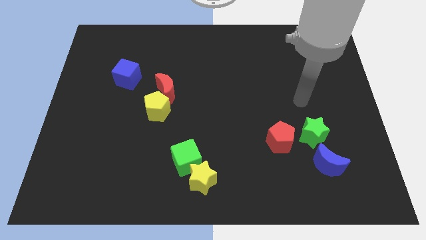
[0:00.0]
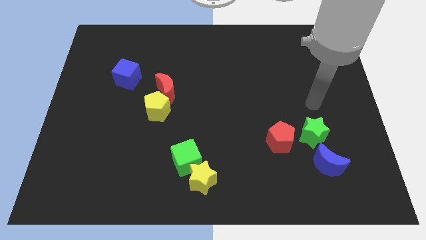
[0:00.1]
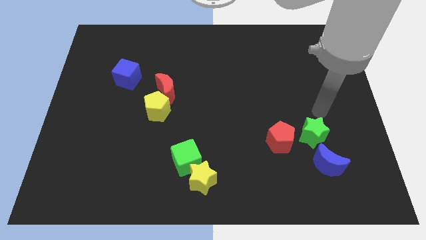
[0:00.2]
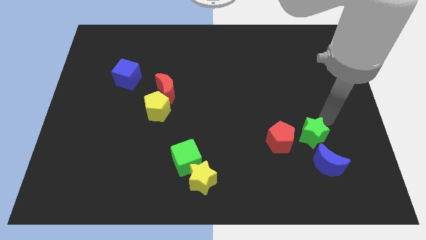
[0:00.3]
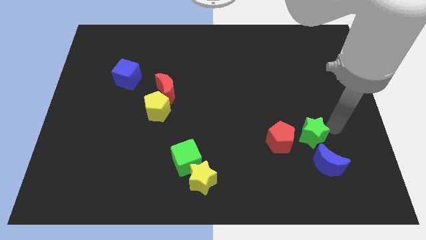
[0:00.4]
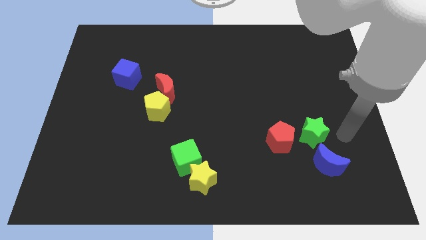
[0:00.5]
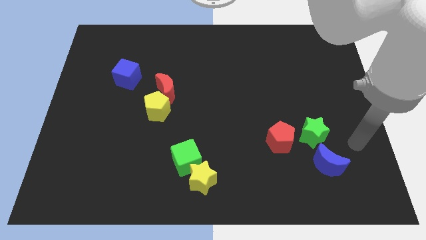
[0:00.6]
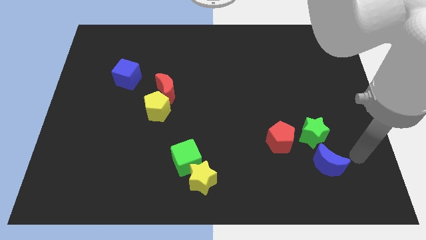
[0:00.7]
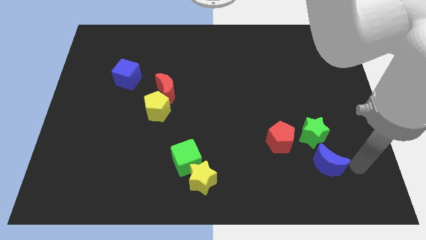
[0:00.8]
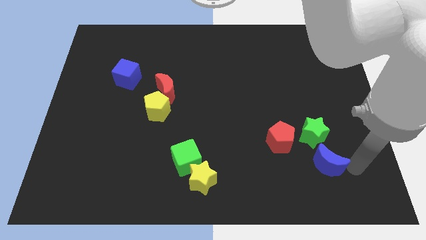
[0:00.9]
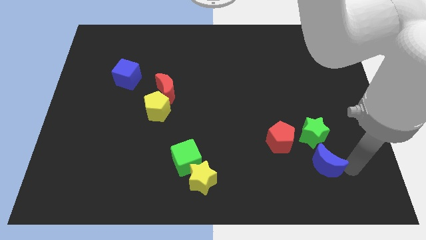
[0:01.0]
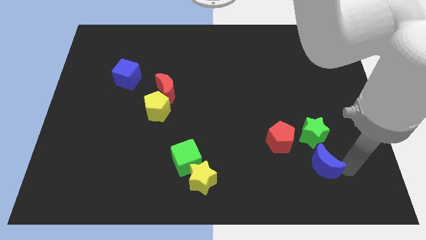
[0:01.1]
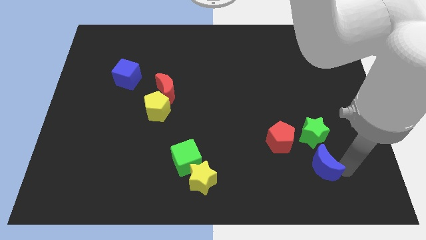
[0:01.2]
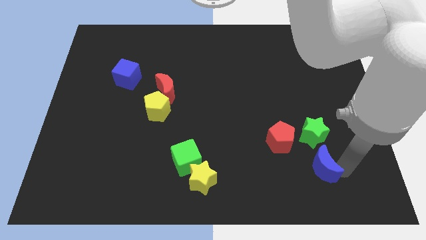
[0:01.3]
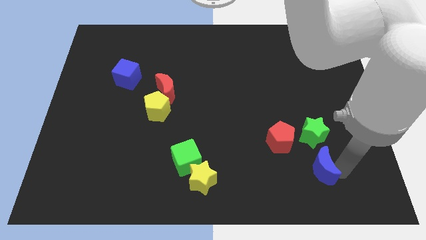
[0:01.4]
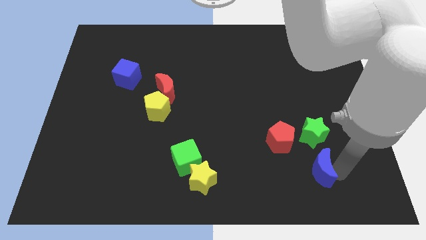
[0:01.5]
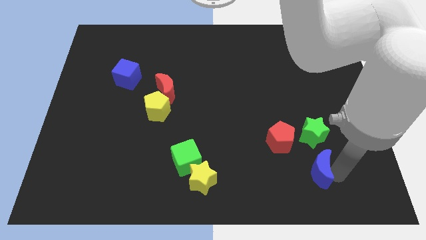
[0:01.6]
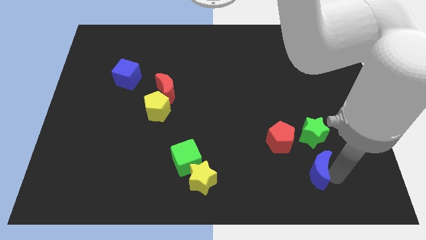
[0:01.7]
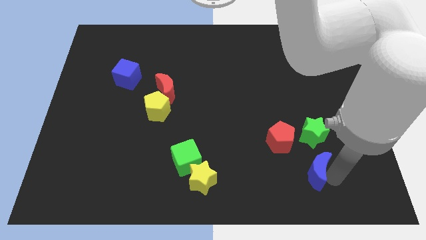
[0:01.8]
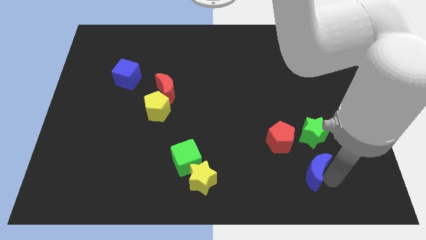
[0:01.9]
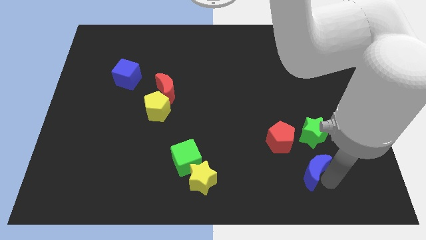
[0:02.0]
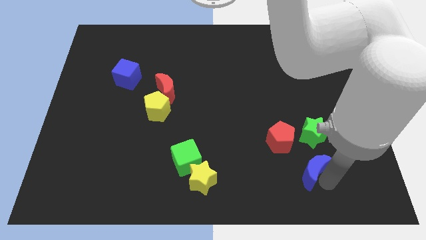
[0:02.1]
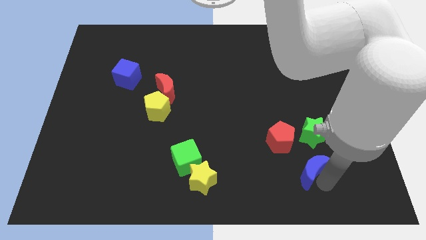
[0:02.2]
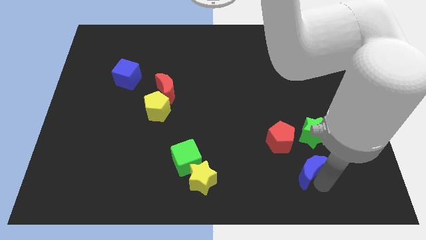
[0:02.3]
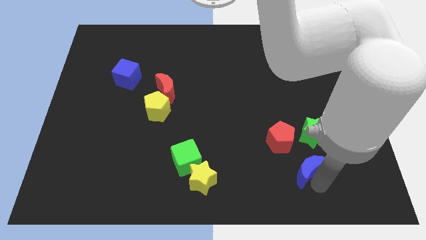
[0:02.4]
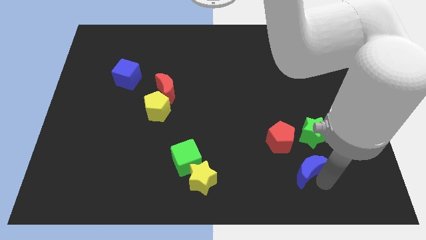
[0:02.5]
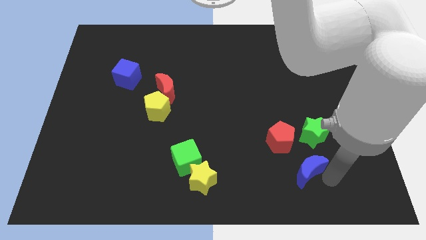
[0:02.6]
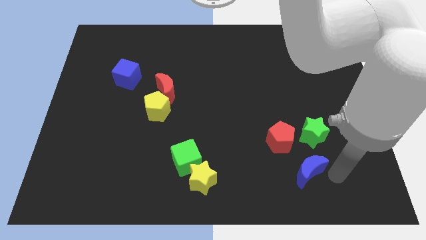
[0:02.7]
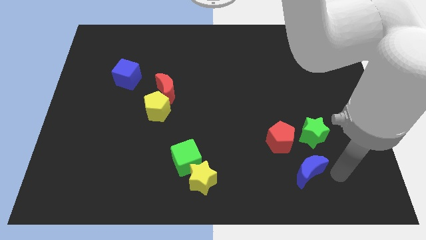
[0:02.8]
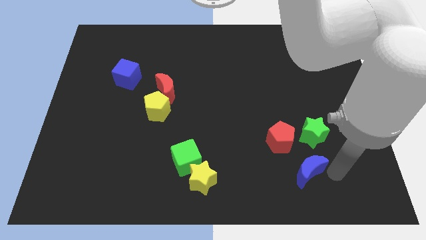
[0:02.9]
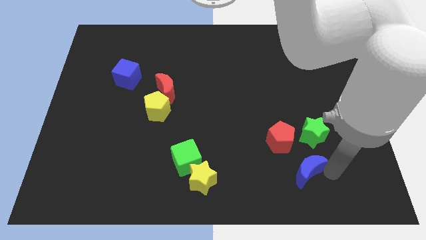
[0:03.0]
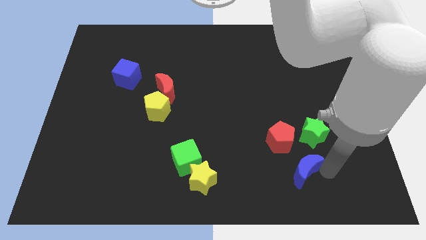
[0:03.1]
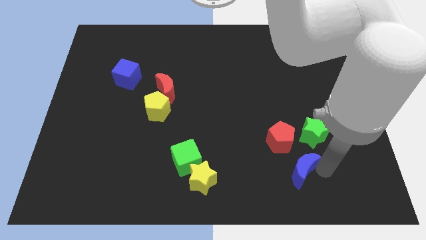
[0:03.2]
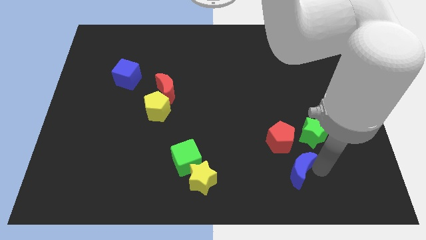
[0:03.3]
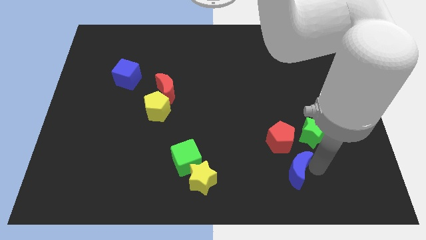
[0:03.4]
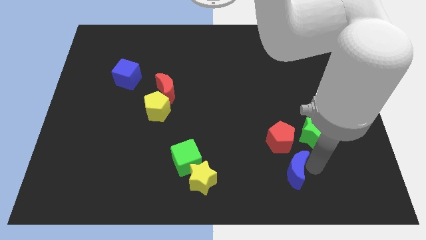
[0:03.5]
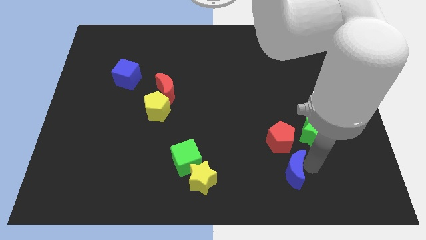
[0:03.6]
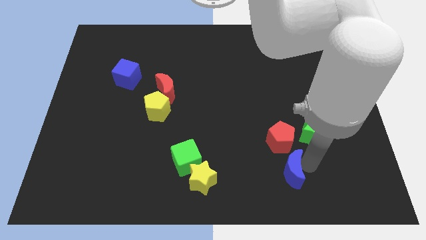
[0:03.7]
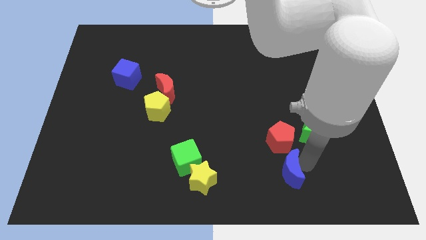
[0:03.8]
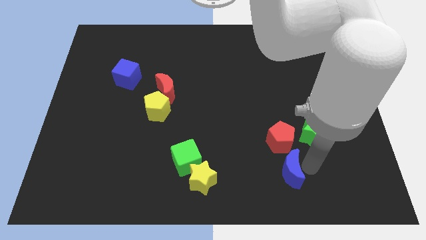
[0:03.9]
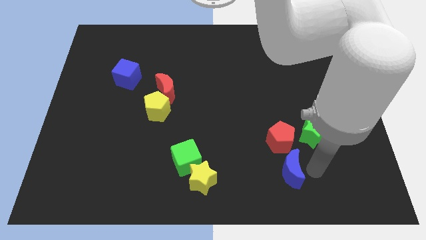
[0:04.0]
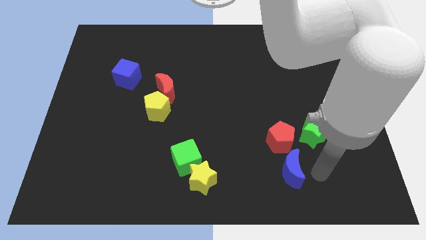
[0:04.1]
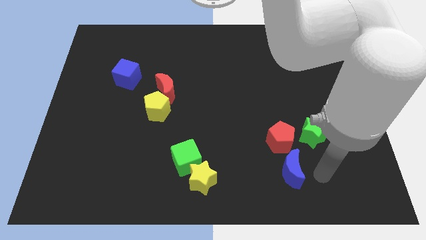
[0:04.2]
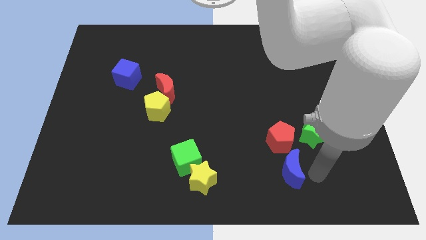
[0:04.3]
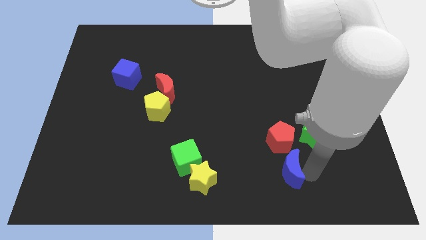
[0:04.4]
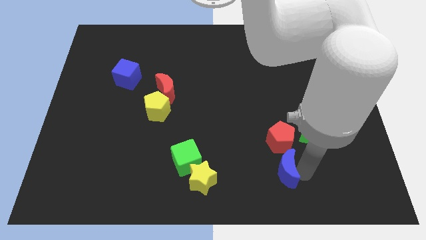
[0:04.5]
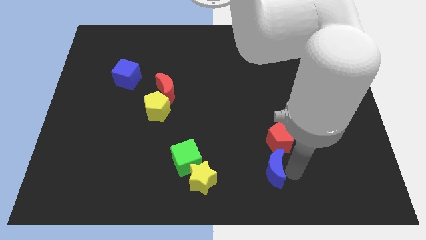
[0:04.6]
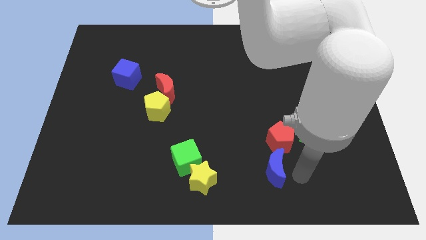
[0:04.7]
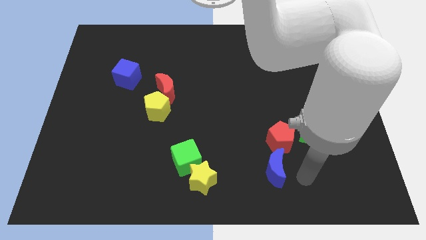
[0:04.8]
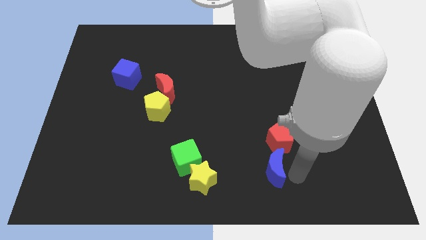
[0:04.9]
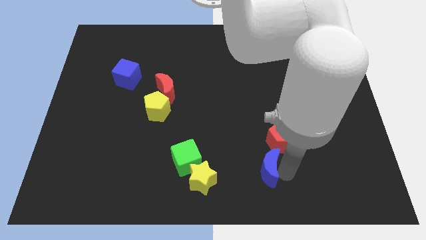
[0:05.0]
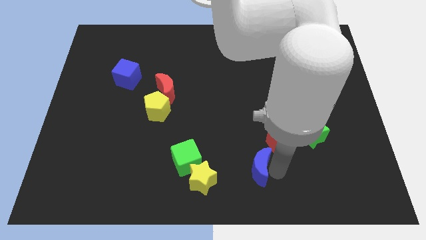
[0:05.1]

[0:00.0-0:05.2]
move the blue moon to the right of the green cube

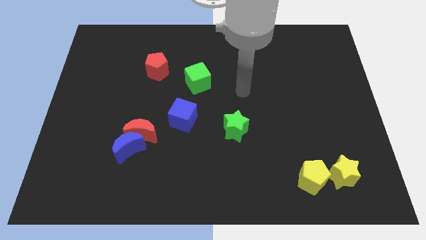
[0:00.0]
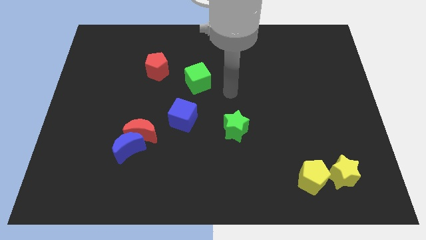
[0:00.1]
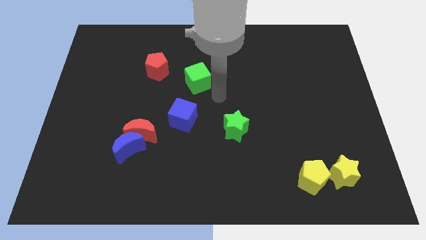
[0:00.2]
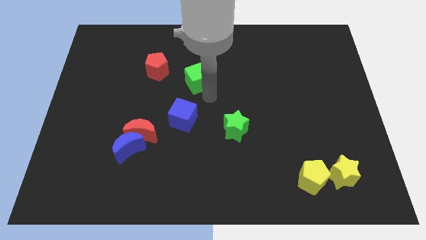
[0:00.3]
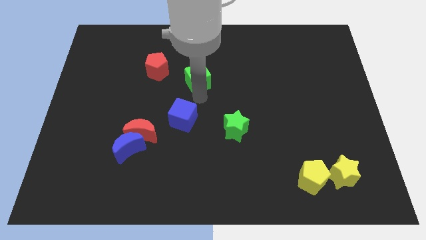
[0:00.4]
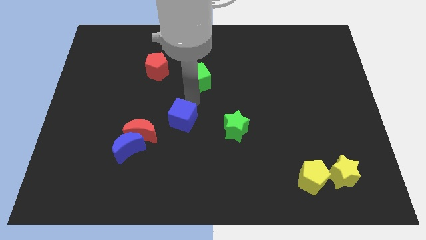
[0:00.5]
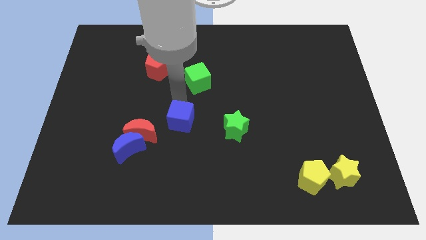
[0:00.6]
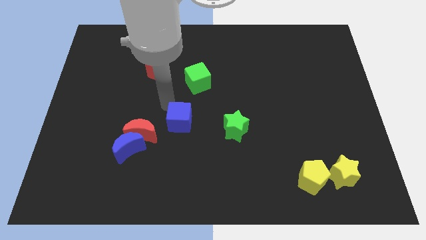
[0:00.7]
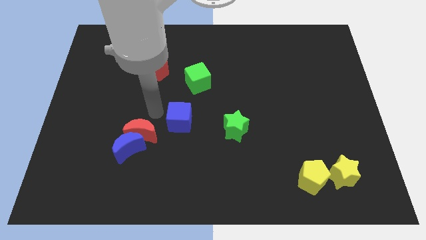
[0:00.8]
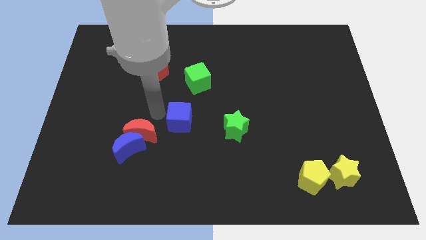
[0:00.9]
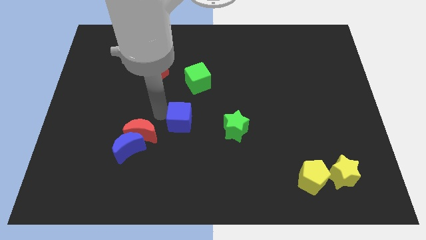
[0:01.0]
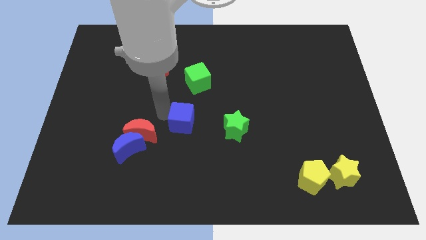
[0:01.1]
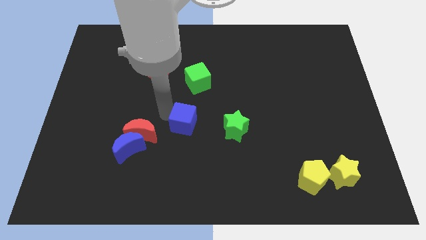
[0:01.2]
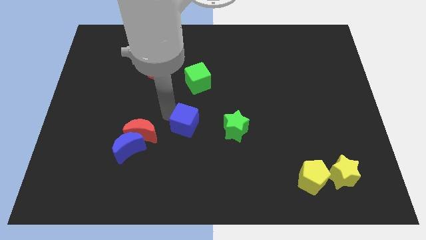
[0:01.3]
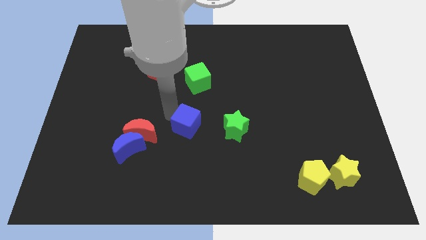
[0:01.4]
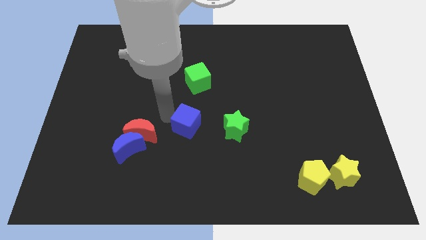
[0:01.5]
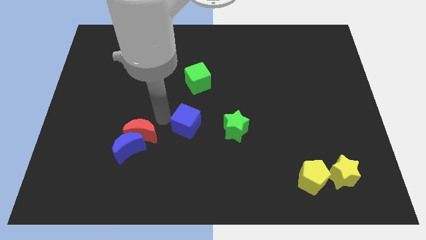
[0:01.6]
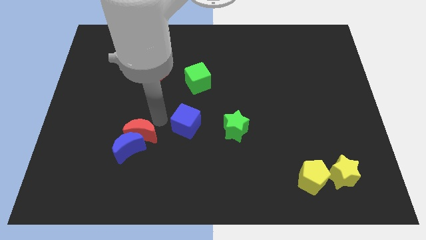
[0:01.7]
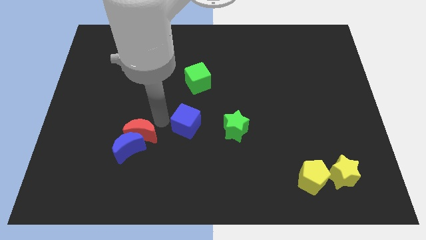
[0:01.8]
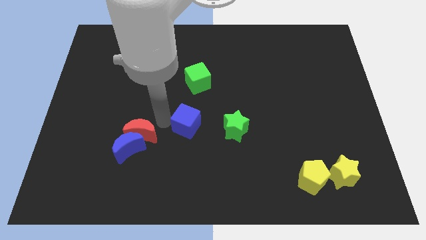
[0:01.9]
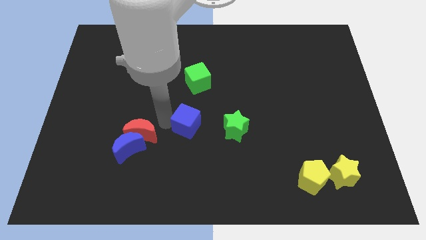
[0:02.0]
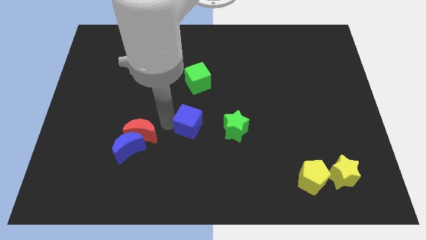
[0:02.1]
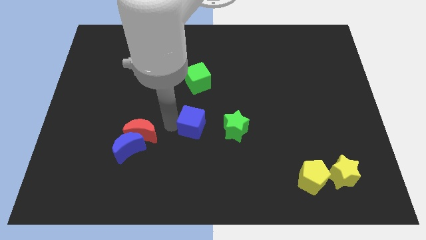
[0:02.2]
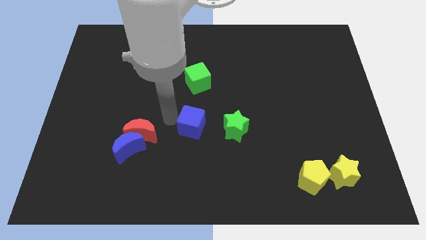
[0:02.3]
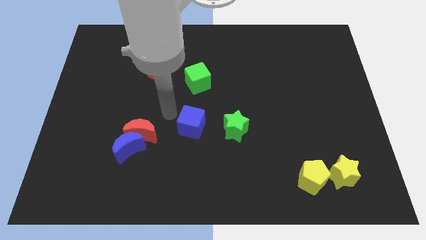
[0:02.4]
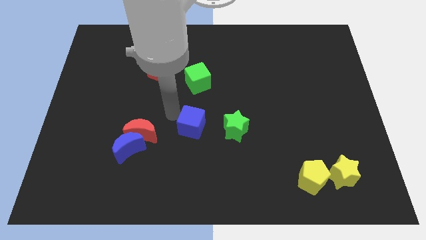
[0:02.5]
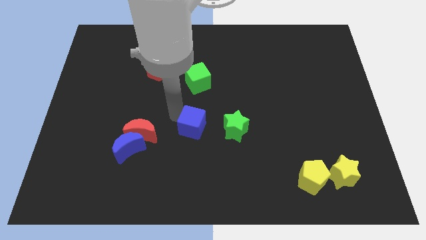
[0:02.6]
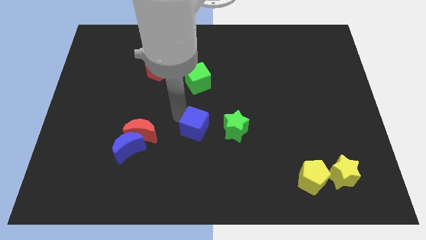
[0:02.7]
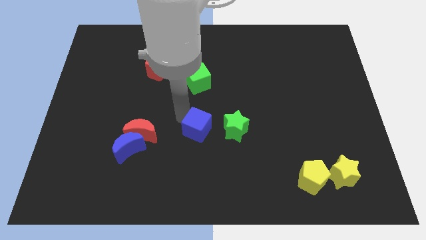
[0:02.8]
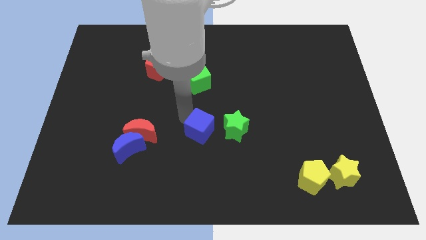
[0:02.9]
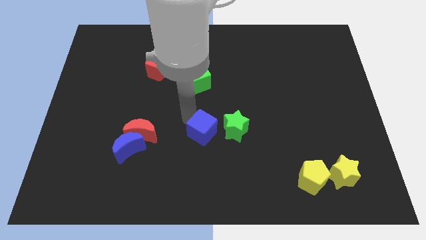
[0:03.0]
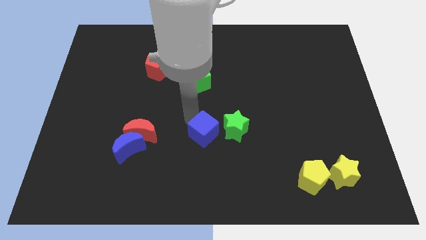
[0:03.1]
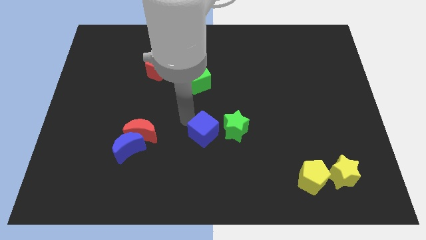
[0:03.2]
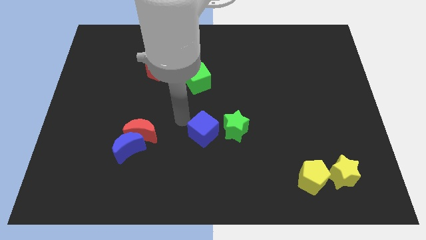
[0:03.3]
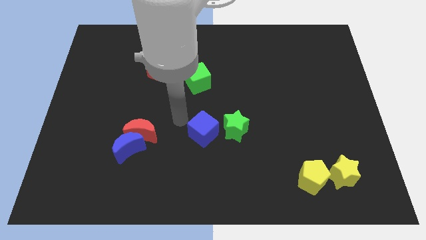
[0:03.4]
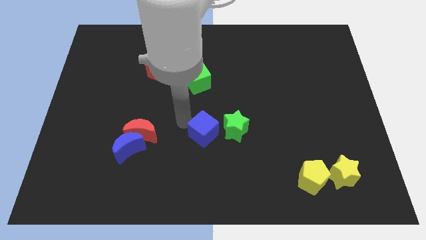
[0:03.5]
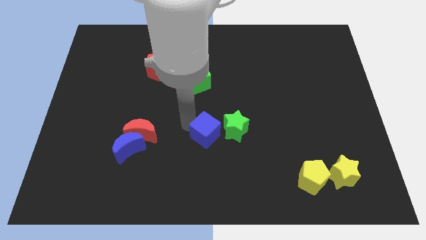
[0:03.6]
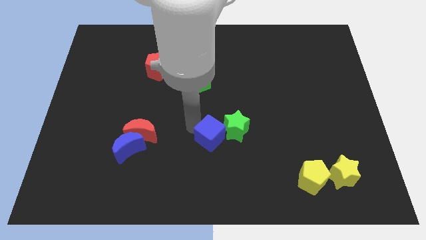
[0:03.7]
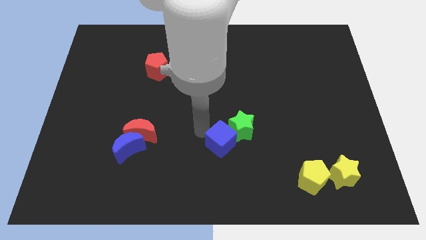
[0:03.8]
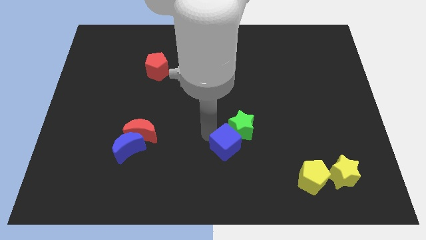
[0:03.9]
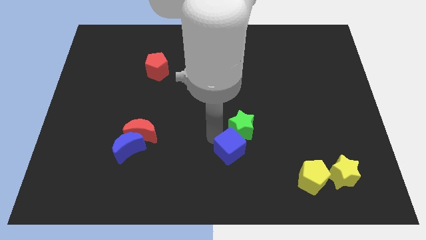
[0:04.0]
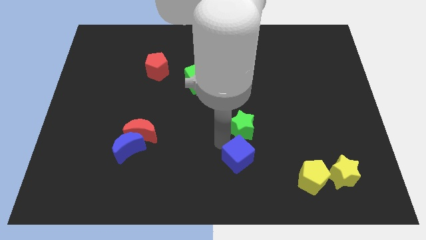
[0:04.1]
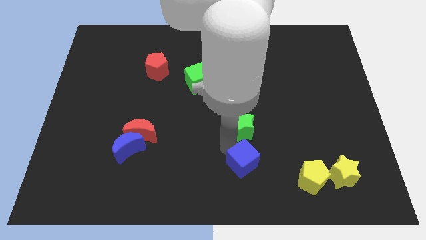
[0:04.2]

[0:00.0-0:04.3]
move the blue cube to the left of the yellow pentagon
